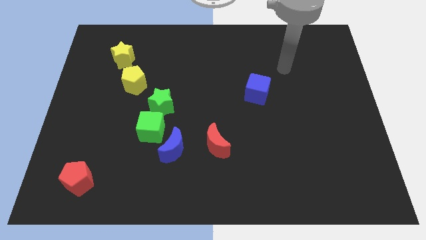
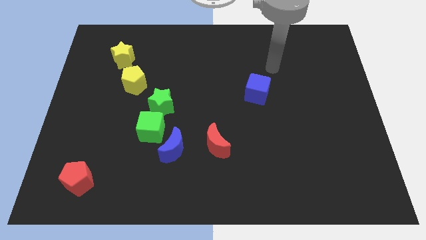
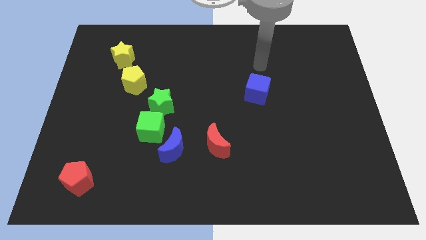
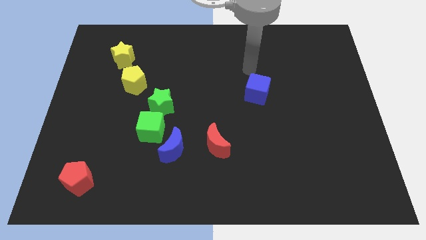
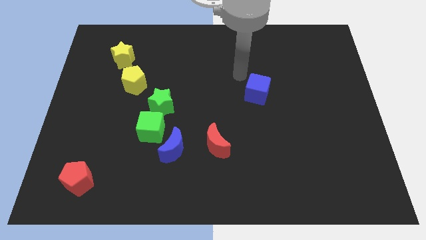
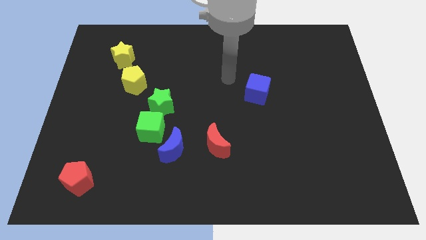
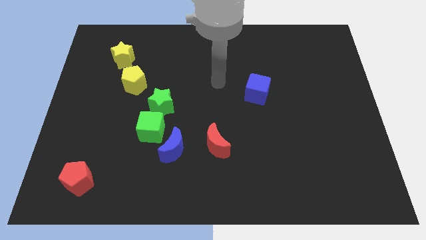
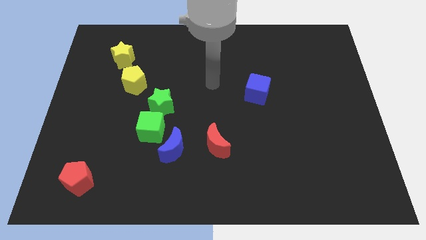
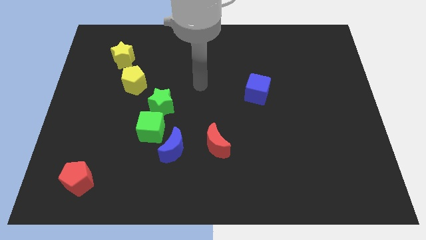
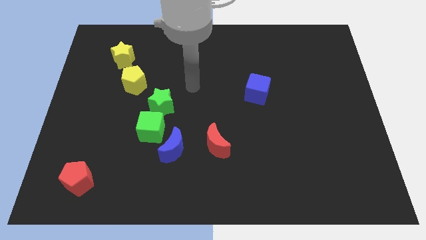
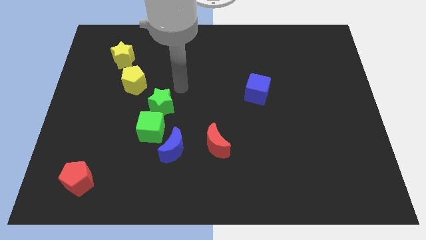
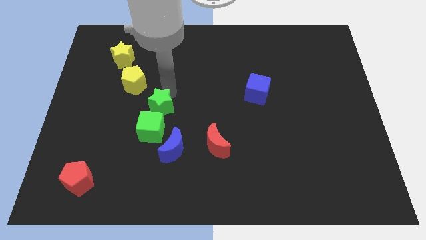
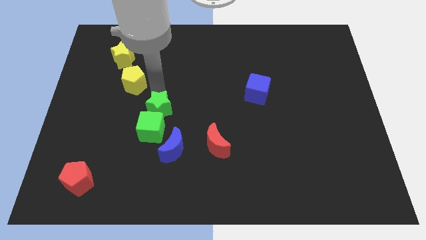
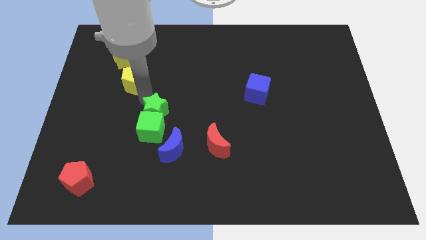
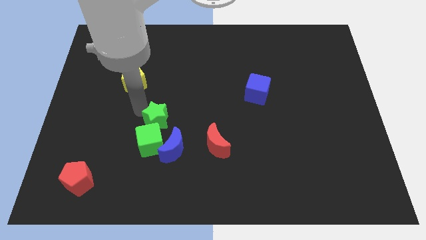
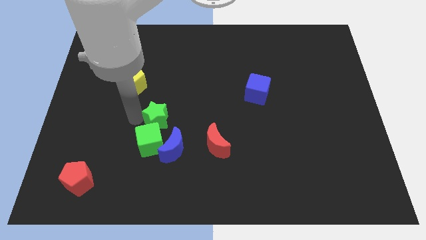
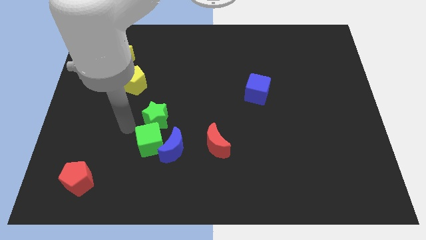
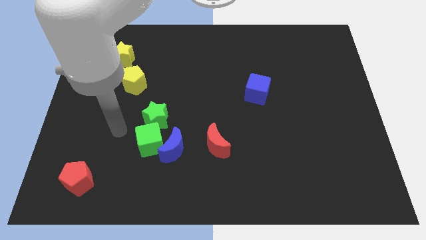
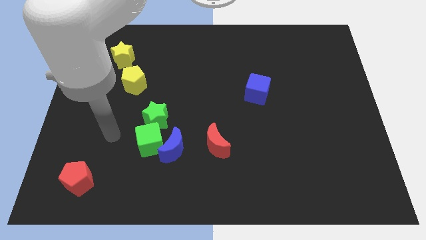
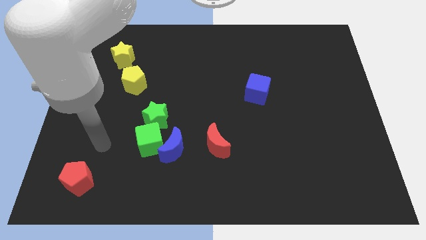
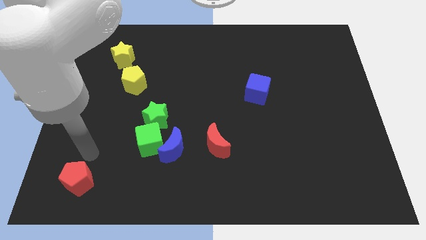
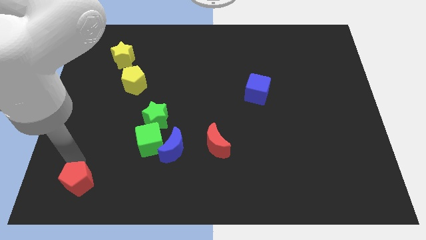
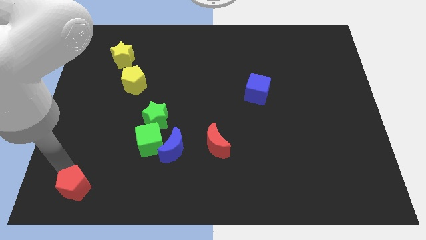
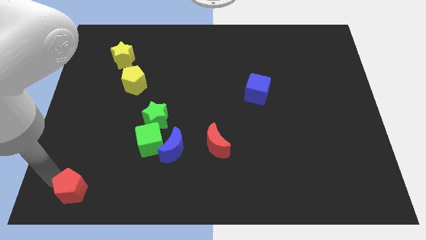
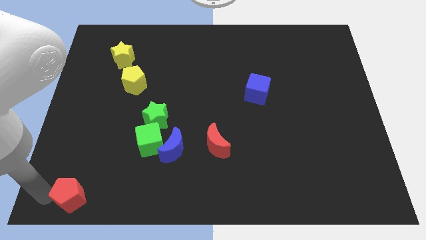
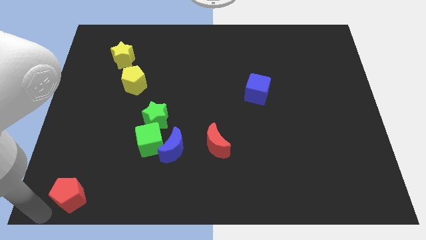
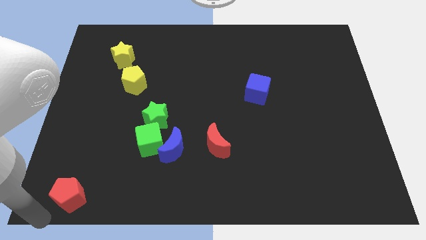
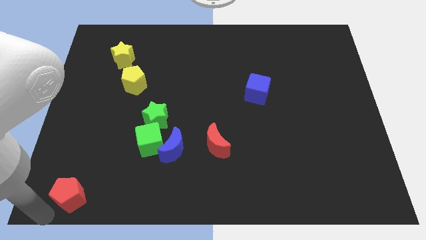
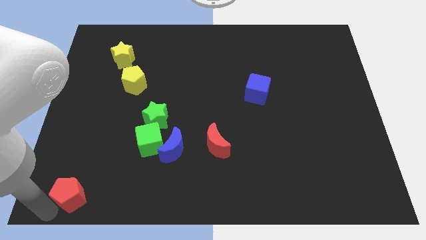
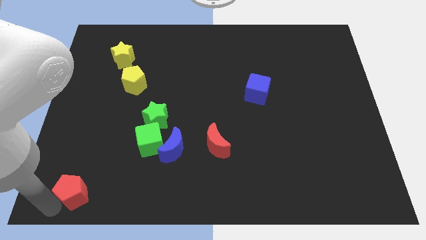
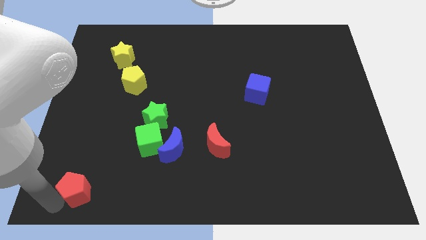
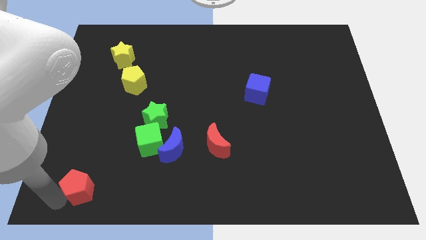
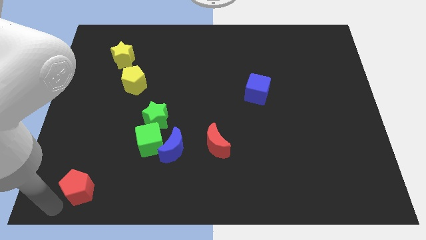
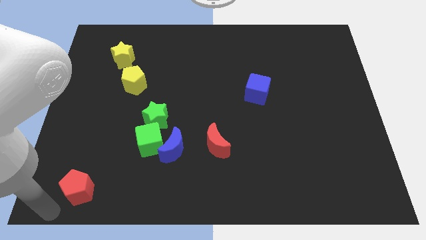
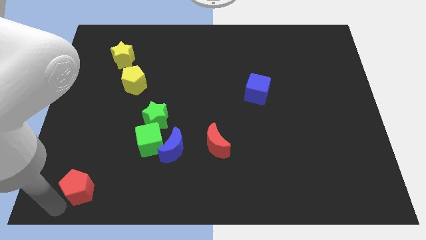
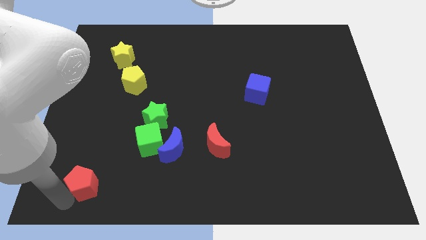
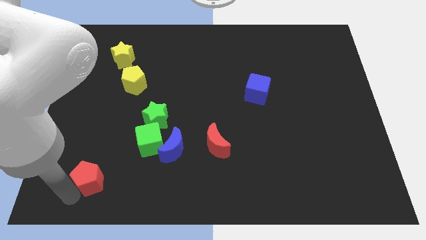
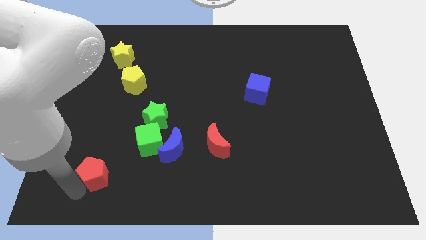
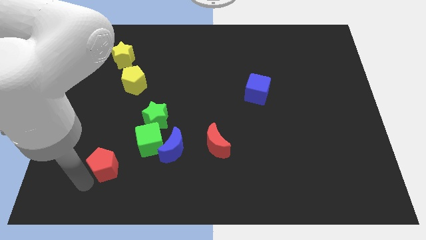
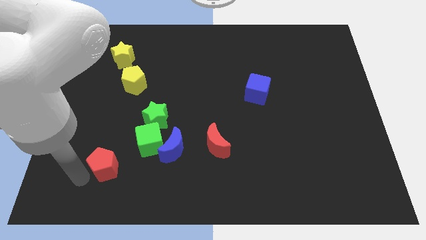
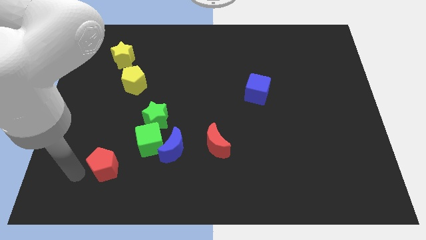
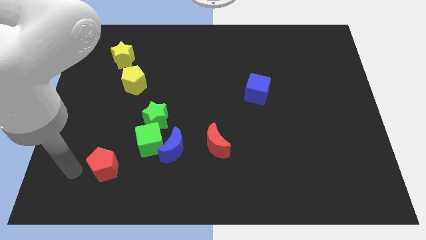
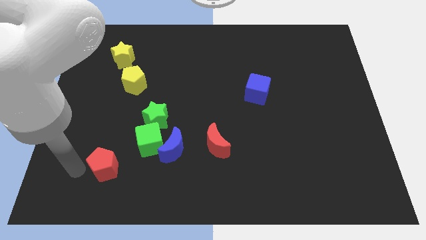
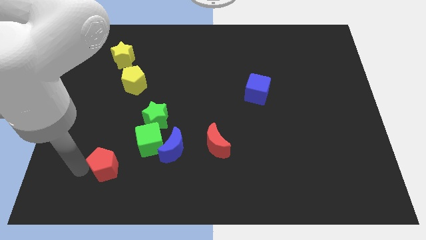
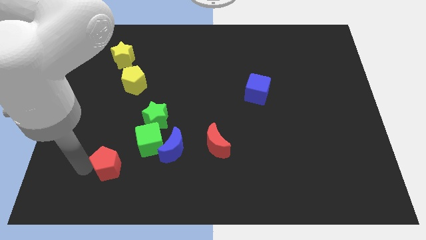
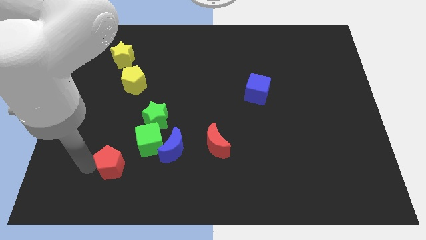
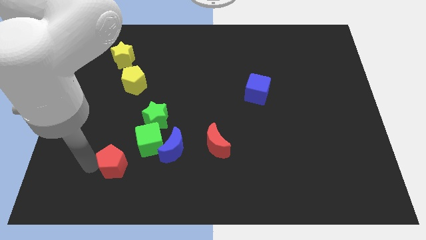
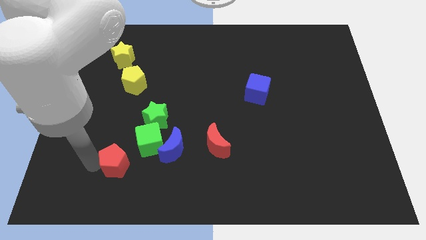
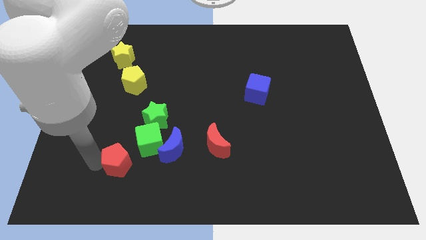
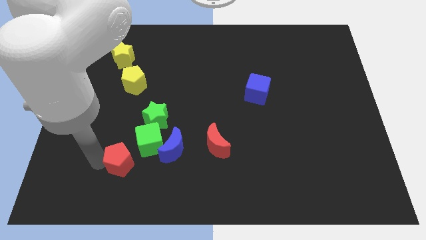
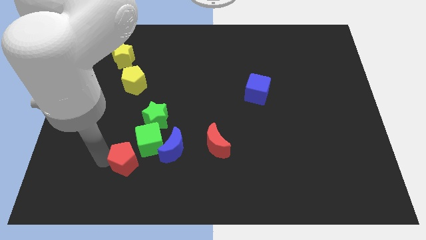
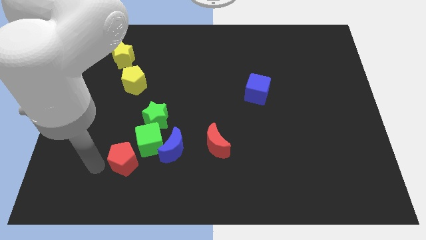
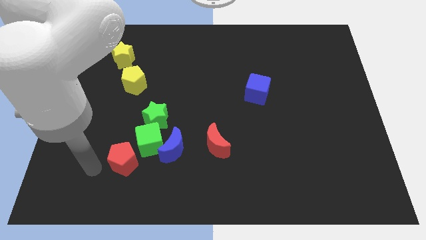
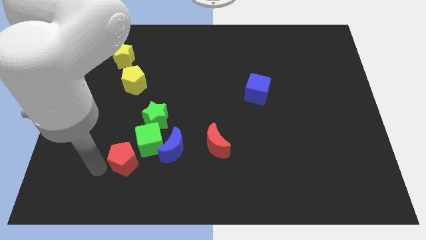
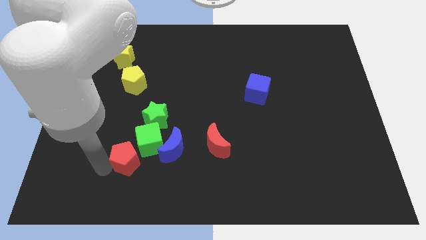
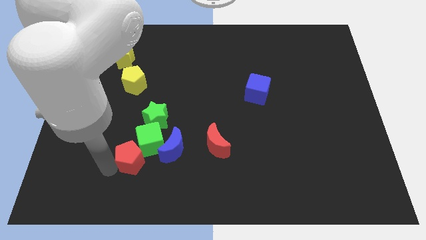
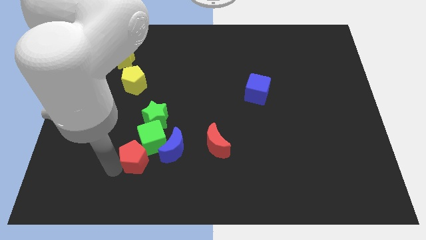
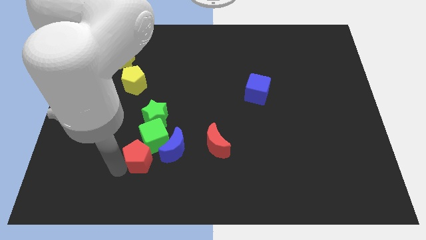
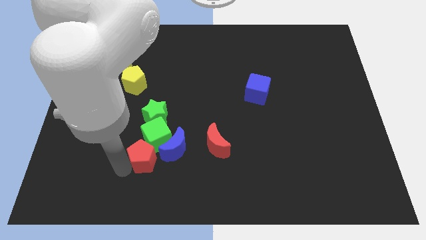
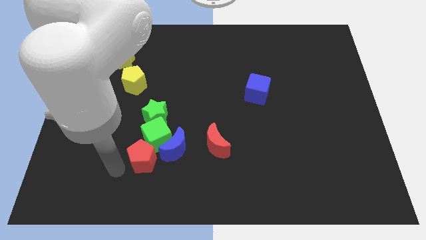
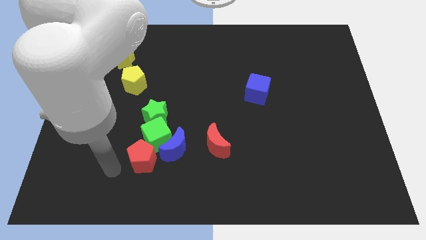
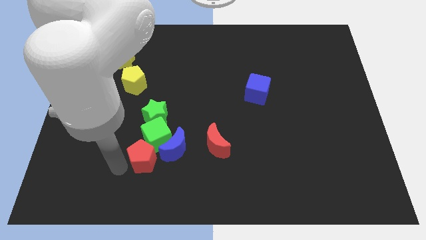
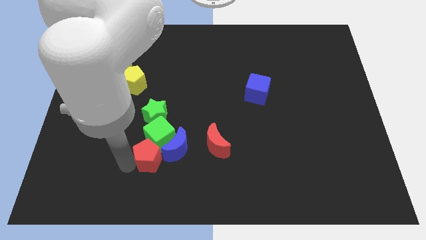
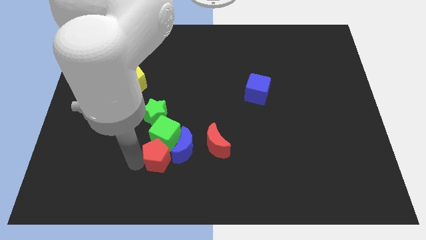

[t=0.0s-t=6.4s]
push the red pentagon towards the blue moon
